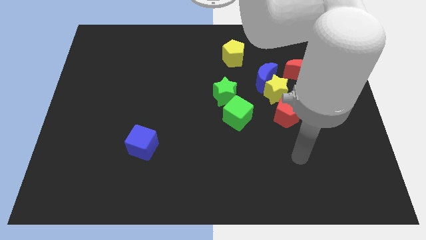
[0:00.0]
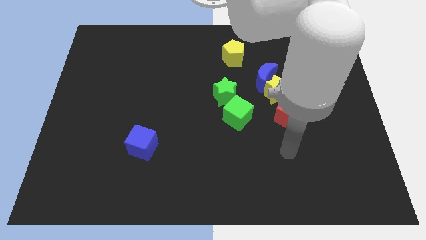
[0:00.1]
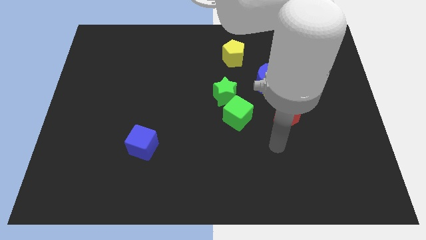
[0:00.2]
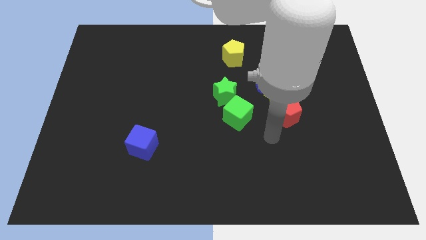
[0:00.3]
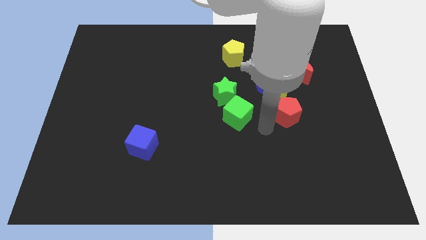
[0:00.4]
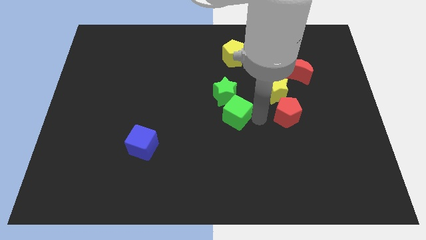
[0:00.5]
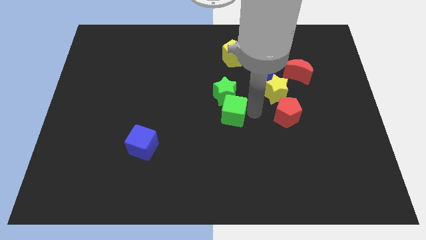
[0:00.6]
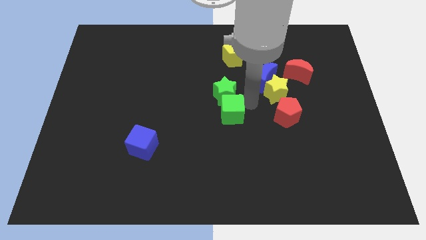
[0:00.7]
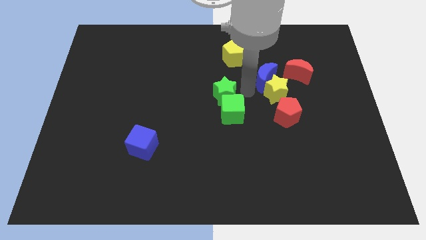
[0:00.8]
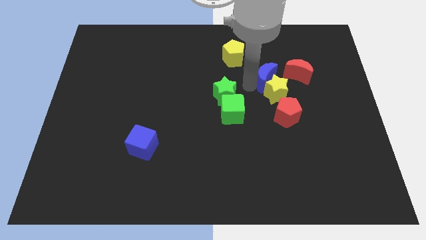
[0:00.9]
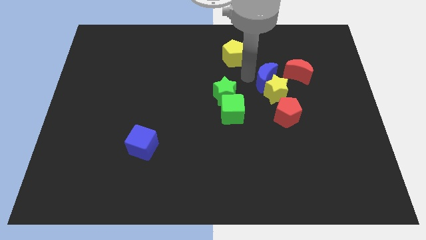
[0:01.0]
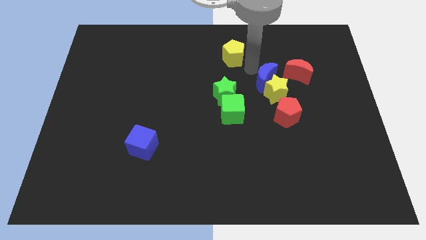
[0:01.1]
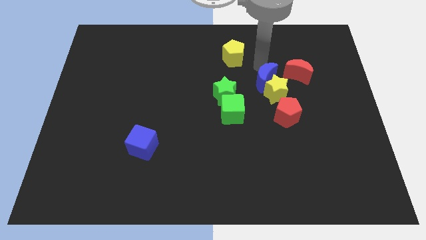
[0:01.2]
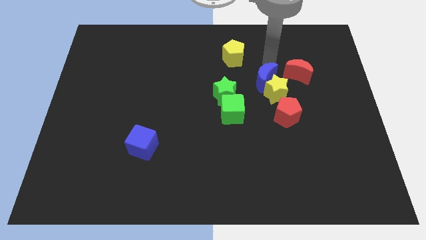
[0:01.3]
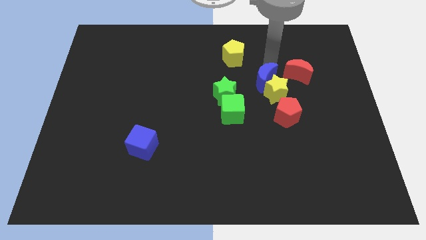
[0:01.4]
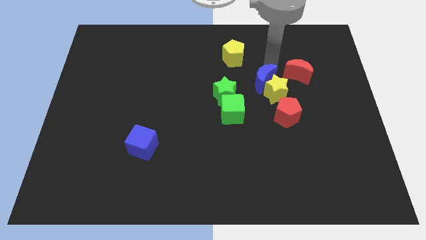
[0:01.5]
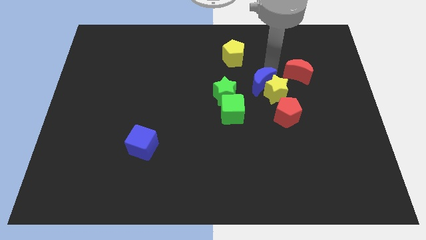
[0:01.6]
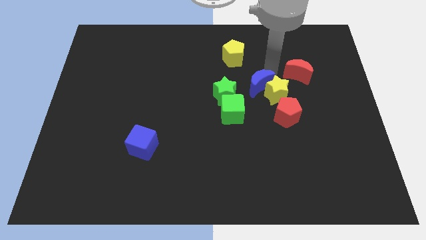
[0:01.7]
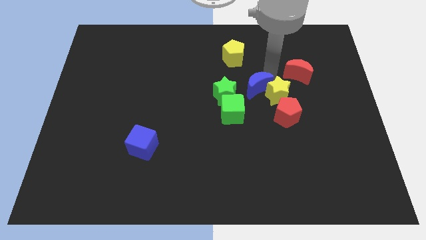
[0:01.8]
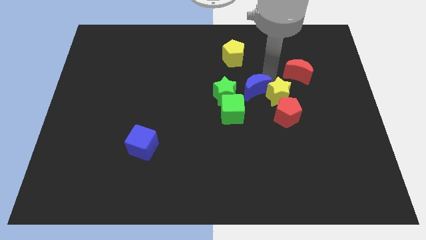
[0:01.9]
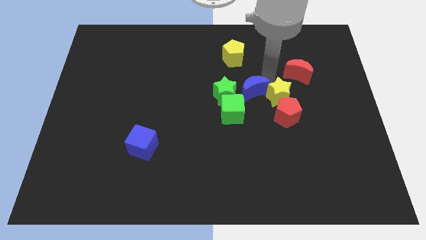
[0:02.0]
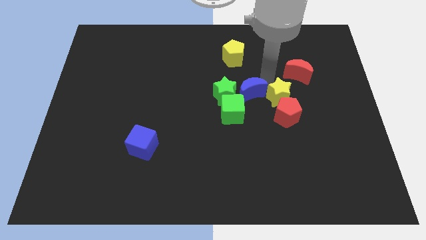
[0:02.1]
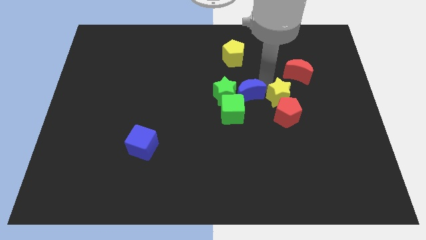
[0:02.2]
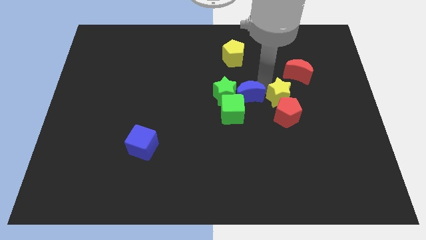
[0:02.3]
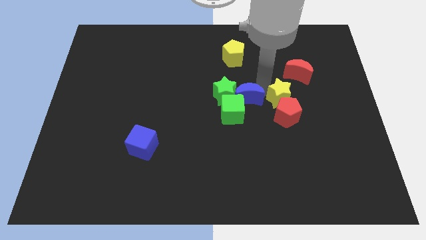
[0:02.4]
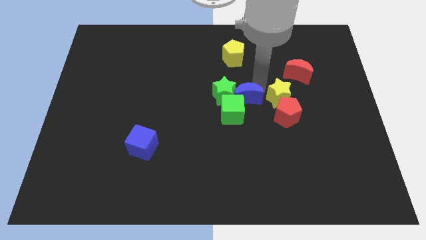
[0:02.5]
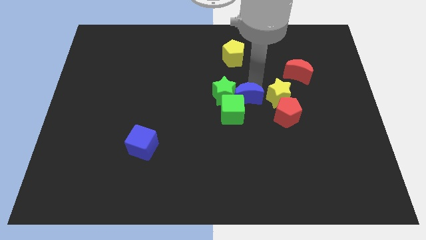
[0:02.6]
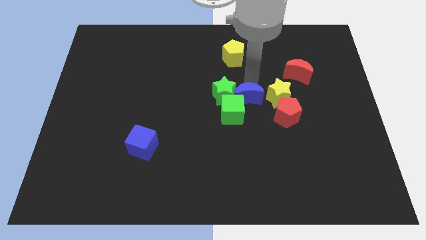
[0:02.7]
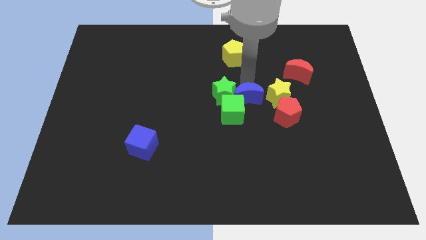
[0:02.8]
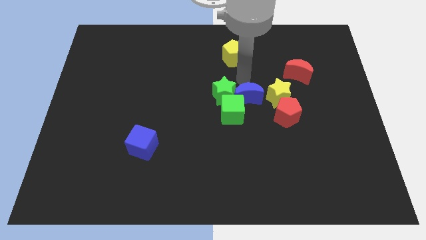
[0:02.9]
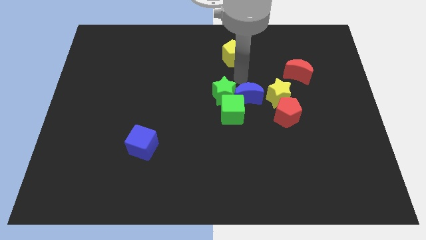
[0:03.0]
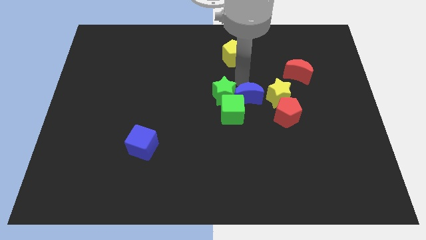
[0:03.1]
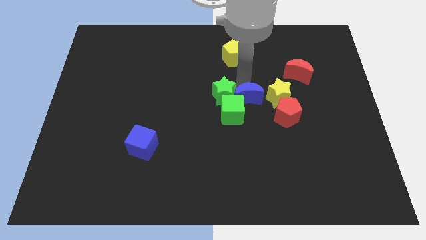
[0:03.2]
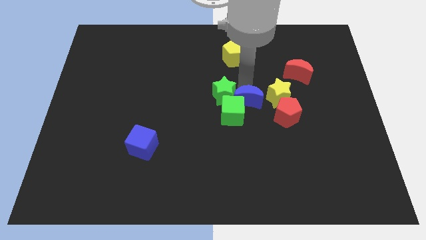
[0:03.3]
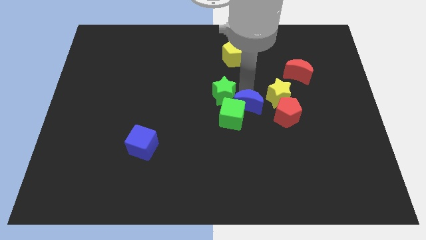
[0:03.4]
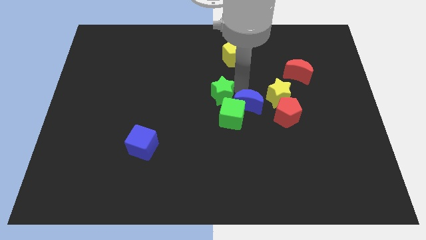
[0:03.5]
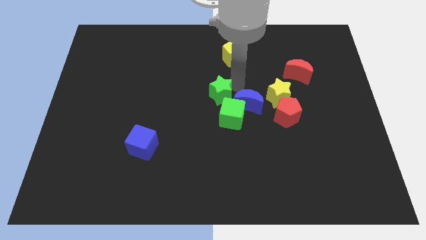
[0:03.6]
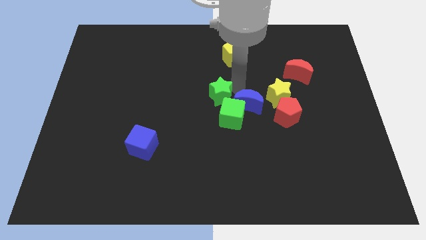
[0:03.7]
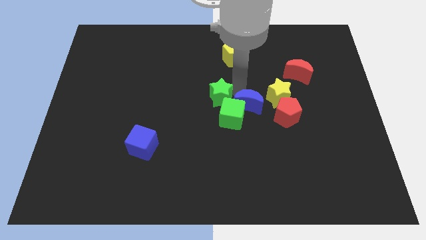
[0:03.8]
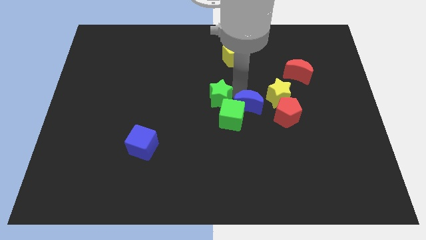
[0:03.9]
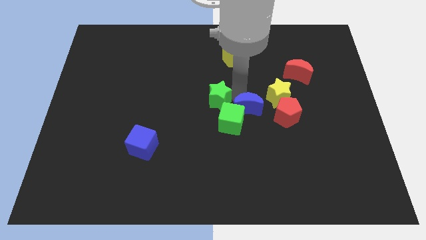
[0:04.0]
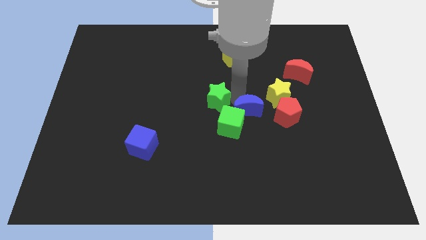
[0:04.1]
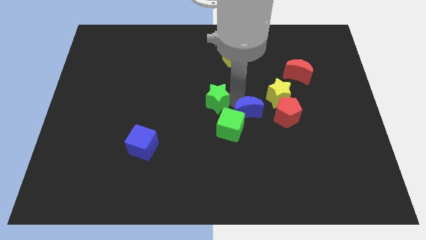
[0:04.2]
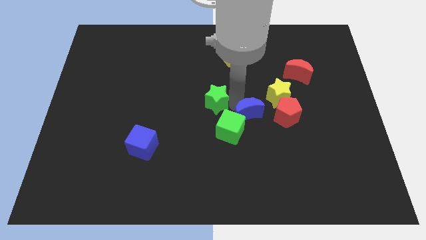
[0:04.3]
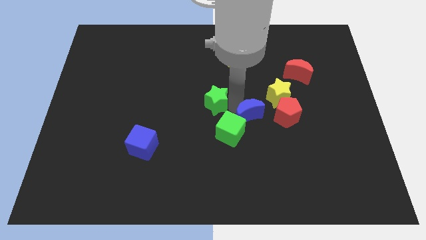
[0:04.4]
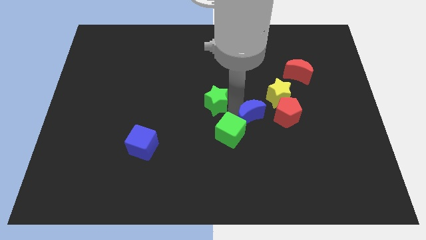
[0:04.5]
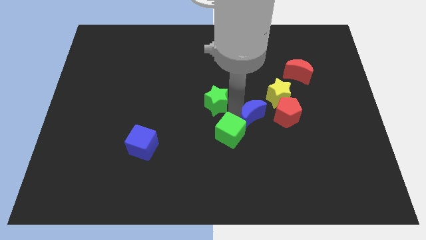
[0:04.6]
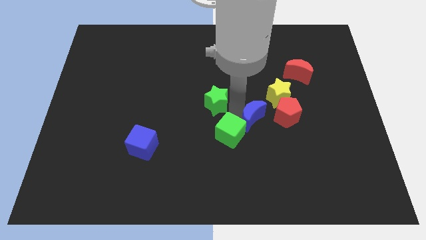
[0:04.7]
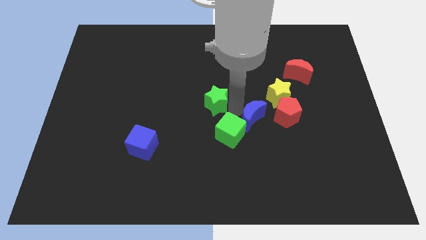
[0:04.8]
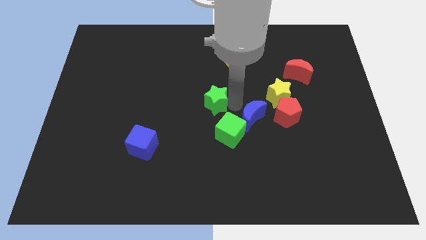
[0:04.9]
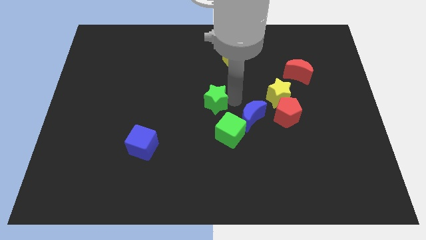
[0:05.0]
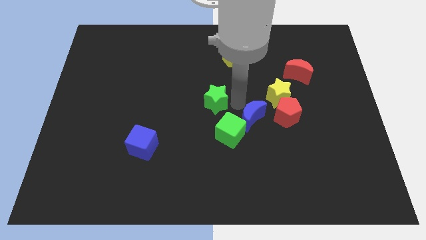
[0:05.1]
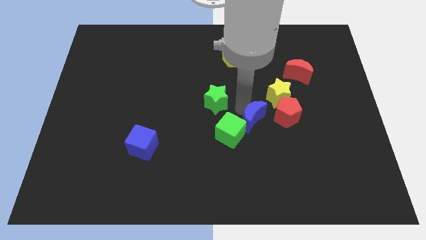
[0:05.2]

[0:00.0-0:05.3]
put the blue moon diagonally down and to the left of the red pentagon

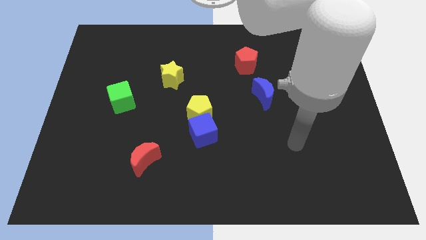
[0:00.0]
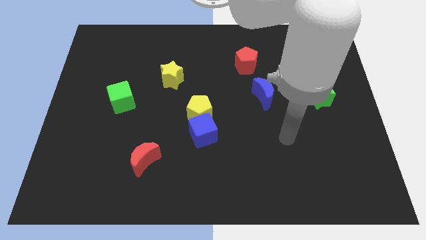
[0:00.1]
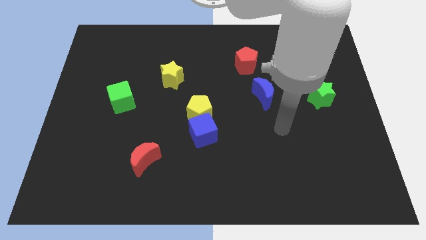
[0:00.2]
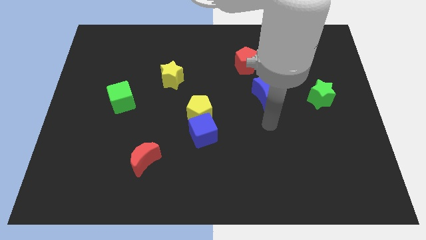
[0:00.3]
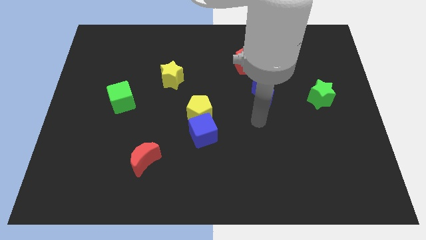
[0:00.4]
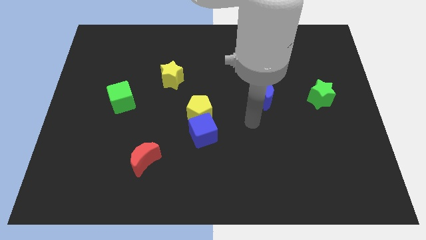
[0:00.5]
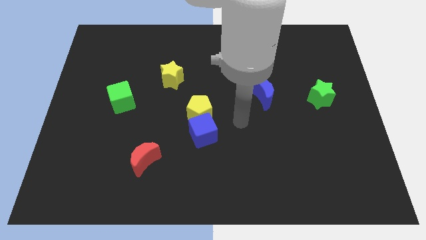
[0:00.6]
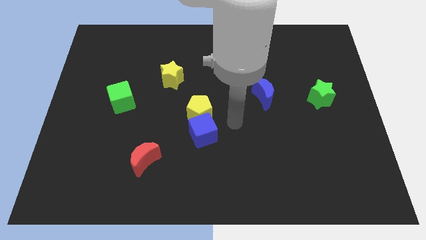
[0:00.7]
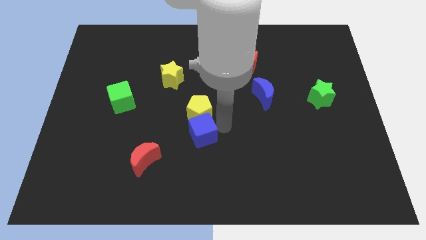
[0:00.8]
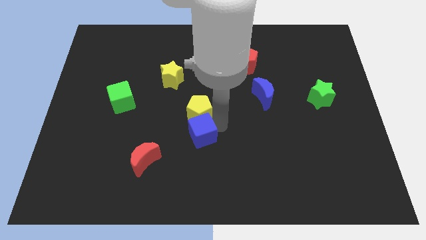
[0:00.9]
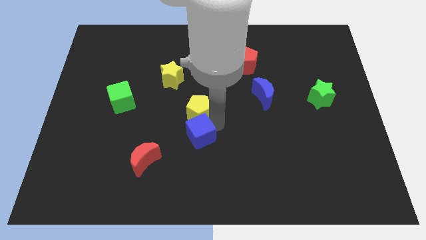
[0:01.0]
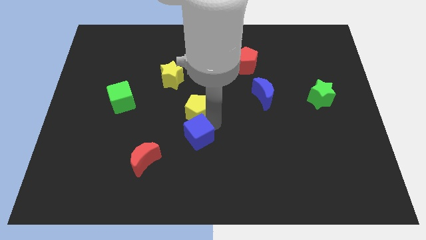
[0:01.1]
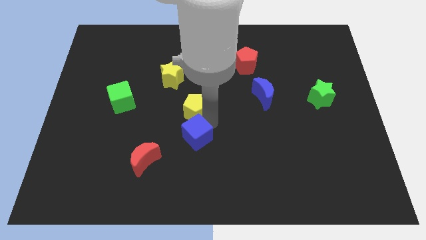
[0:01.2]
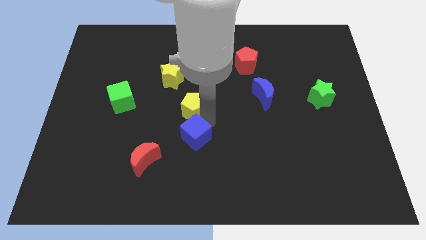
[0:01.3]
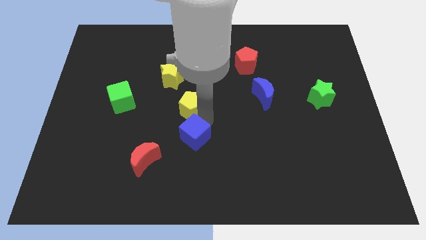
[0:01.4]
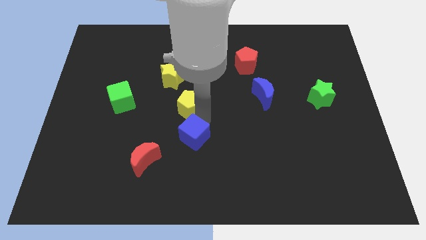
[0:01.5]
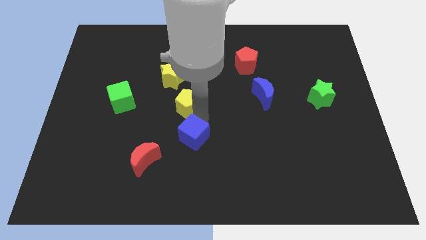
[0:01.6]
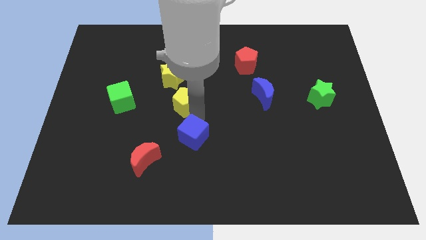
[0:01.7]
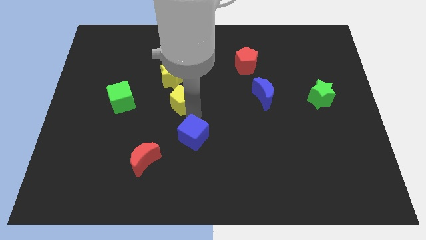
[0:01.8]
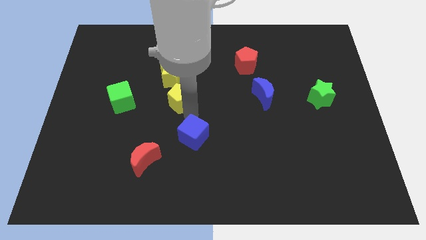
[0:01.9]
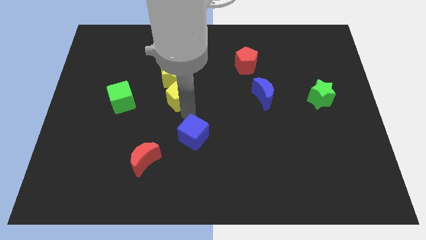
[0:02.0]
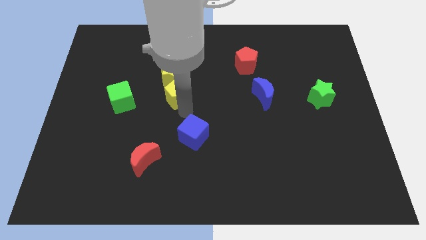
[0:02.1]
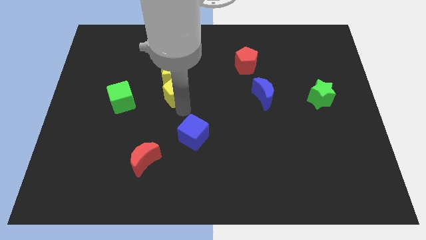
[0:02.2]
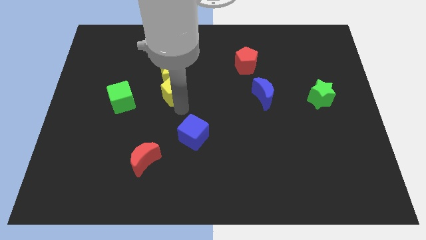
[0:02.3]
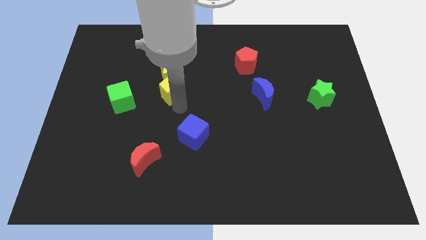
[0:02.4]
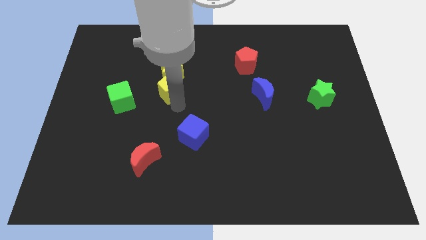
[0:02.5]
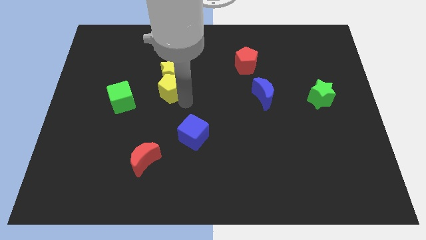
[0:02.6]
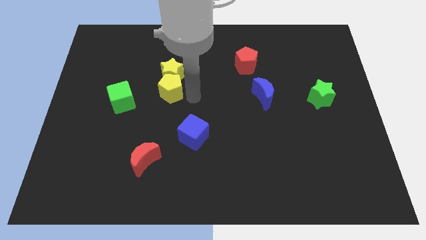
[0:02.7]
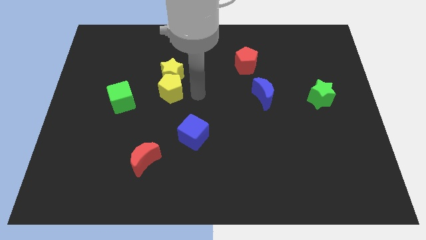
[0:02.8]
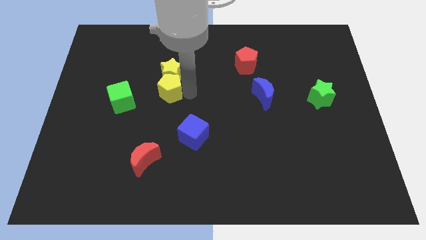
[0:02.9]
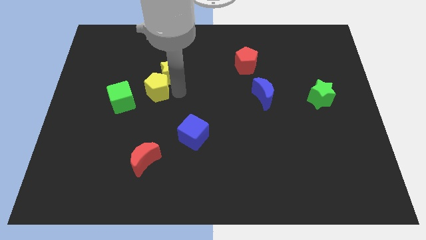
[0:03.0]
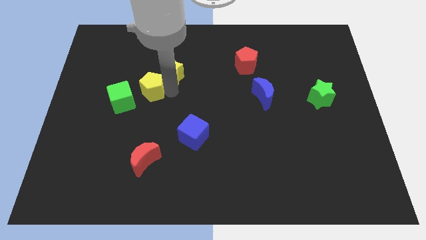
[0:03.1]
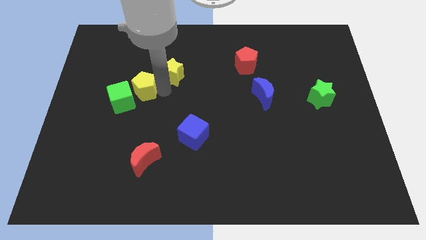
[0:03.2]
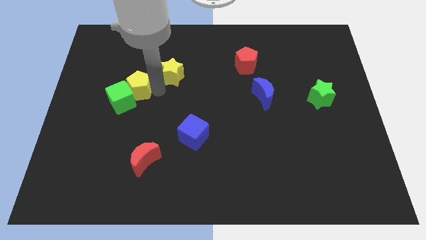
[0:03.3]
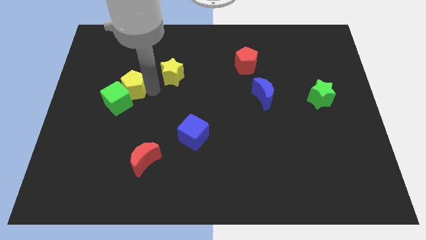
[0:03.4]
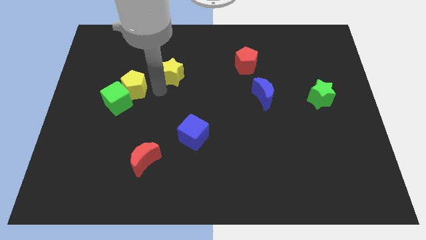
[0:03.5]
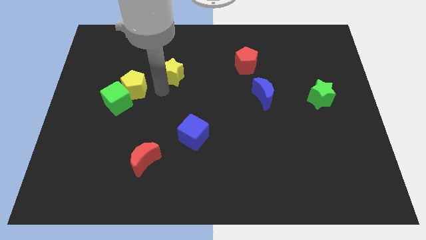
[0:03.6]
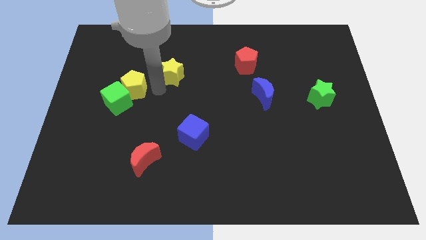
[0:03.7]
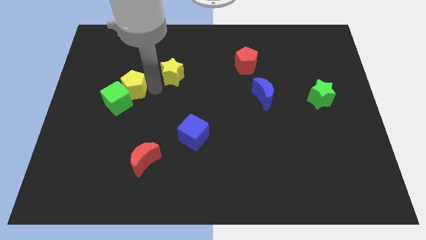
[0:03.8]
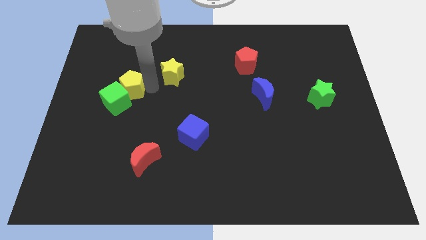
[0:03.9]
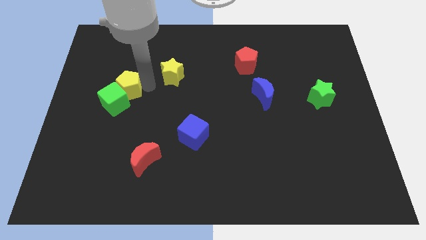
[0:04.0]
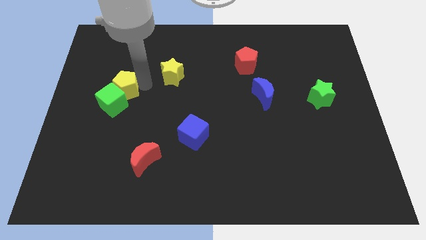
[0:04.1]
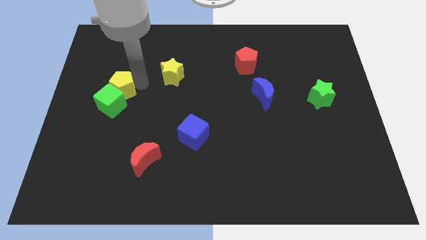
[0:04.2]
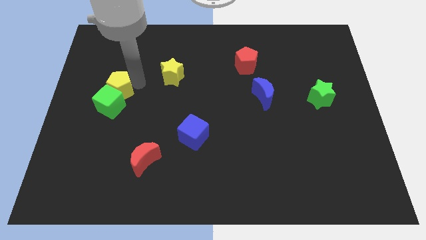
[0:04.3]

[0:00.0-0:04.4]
move the yellow pentagon to the top left of the green cube
